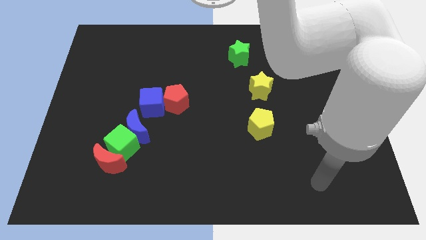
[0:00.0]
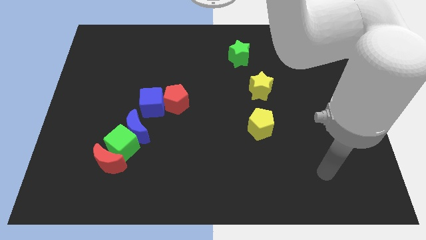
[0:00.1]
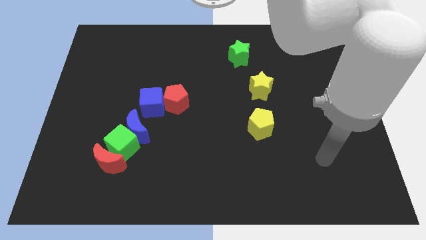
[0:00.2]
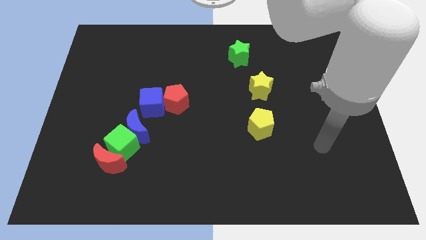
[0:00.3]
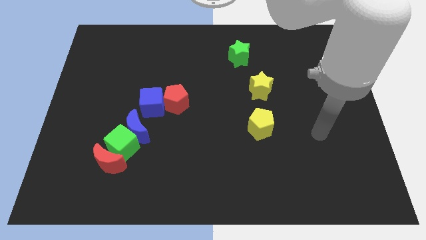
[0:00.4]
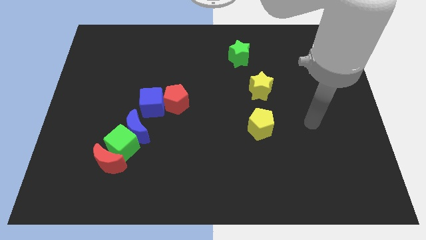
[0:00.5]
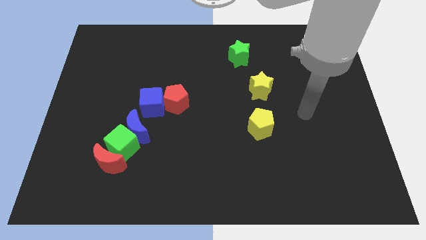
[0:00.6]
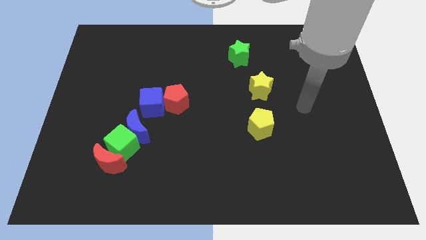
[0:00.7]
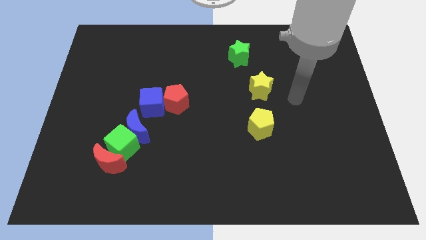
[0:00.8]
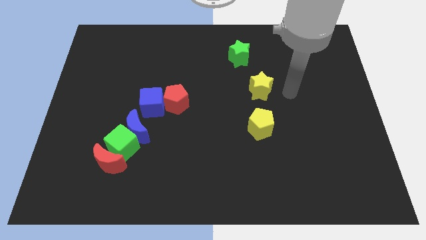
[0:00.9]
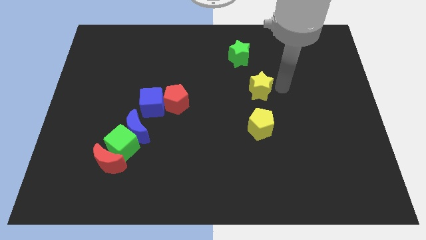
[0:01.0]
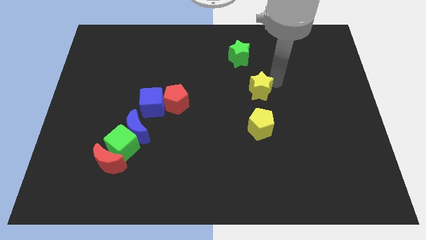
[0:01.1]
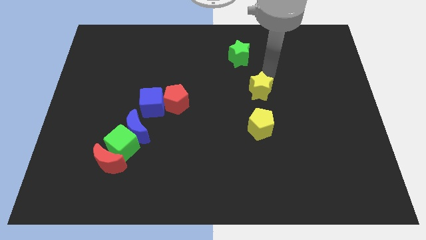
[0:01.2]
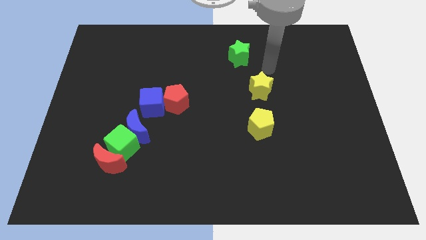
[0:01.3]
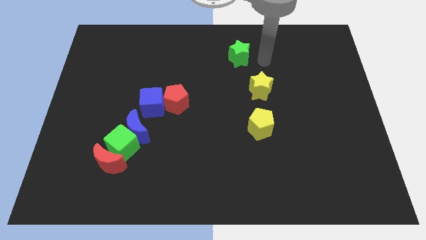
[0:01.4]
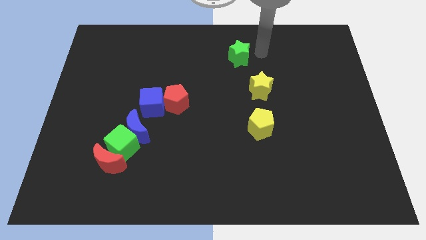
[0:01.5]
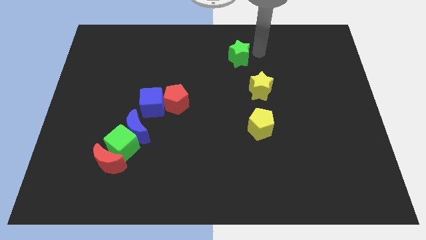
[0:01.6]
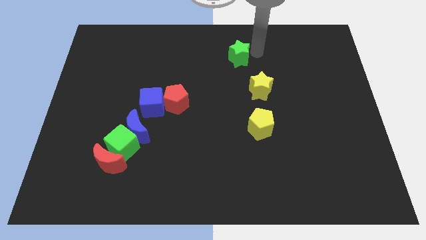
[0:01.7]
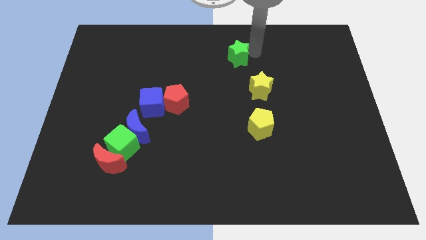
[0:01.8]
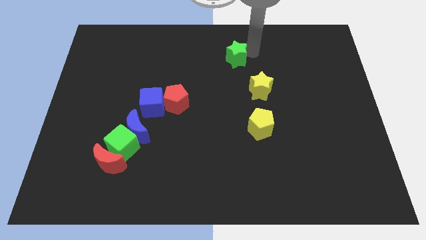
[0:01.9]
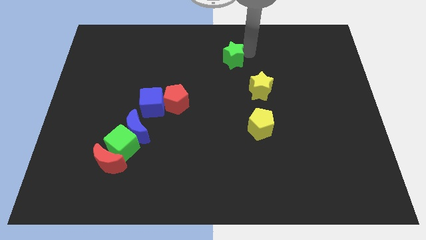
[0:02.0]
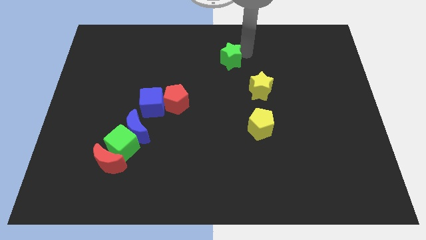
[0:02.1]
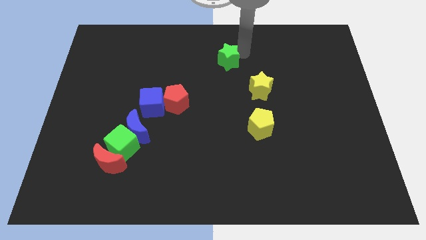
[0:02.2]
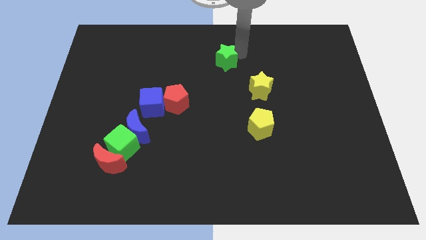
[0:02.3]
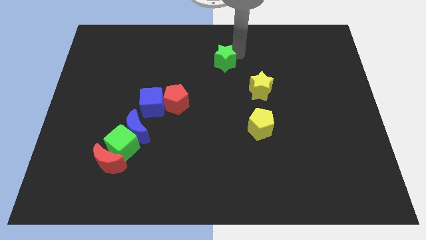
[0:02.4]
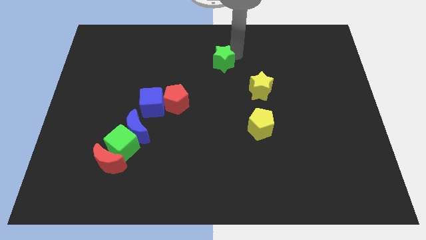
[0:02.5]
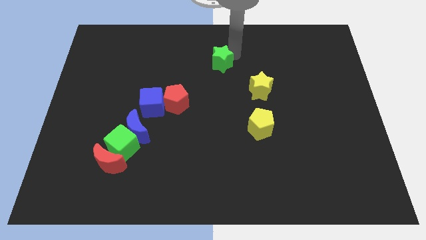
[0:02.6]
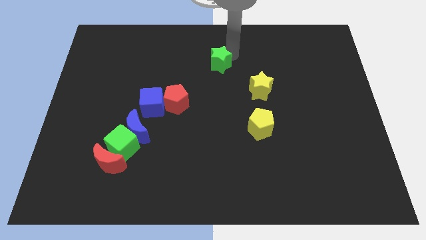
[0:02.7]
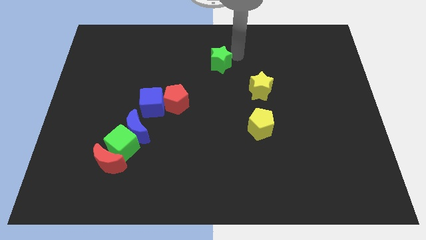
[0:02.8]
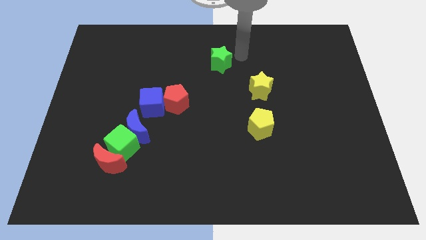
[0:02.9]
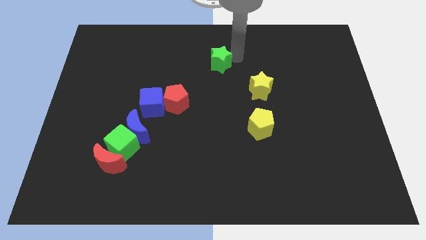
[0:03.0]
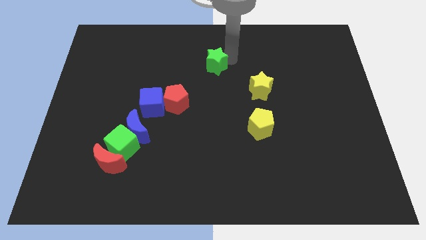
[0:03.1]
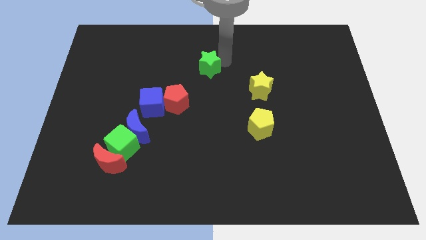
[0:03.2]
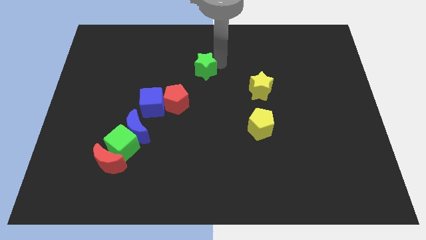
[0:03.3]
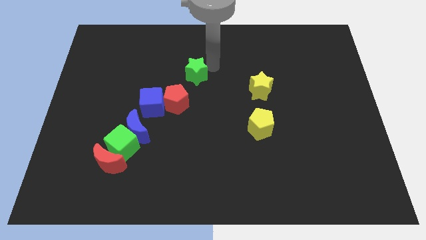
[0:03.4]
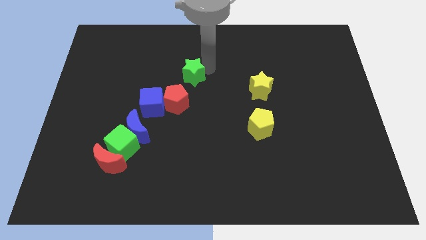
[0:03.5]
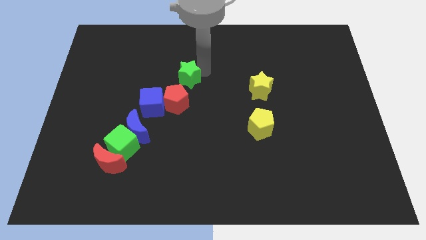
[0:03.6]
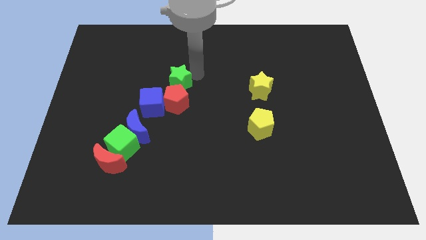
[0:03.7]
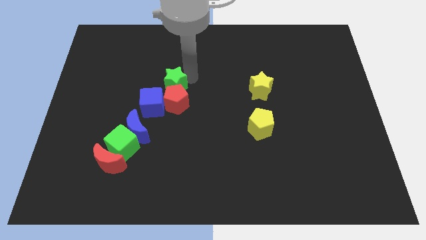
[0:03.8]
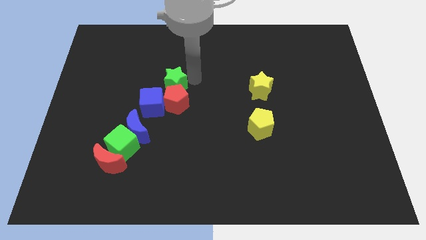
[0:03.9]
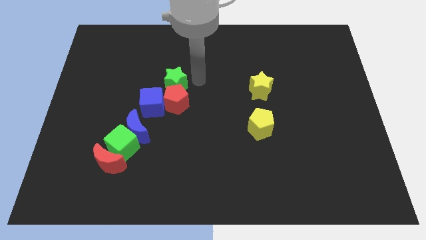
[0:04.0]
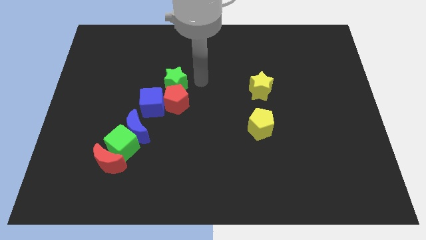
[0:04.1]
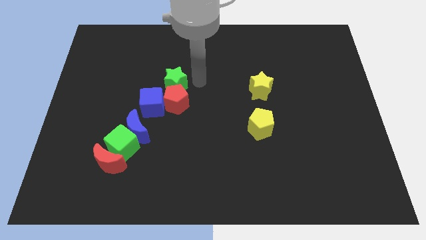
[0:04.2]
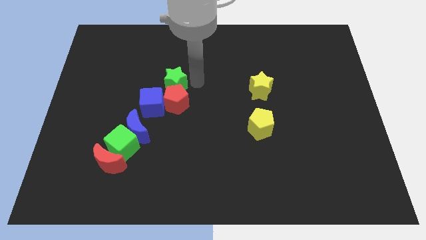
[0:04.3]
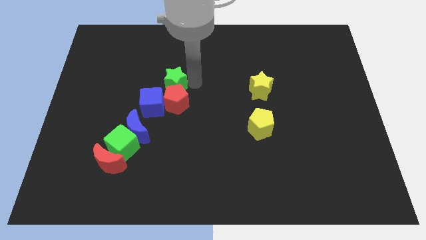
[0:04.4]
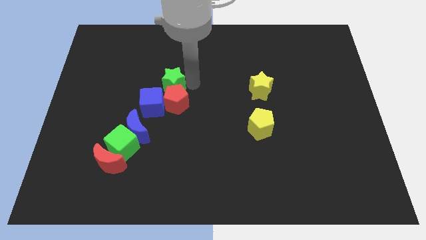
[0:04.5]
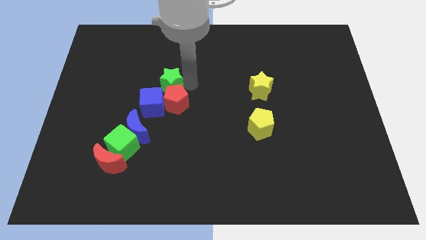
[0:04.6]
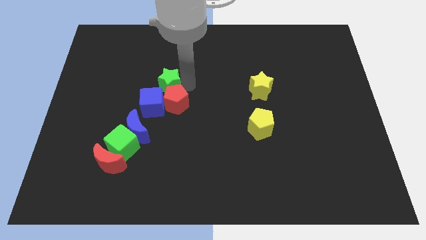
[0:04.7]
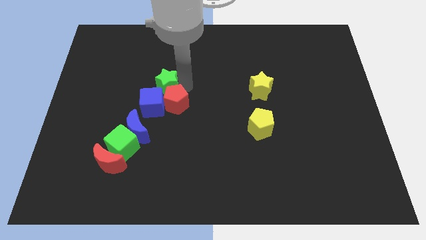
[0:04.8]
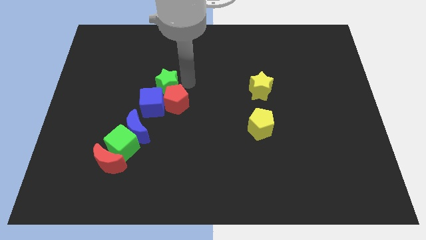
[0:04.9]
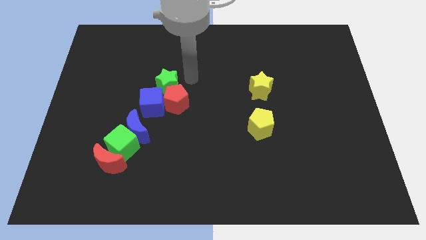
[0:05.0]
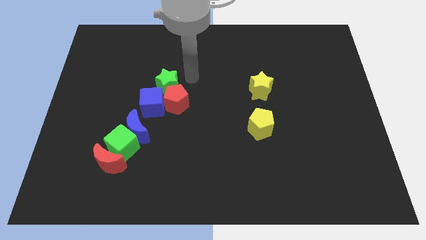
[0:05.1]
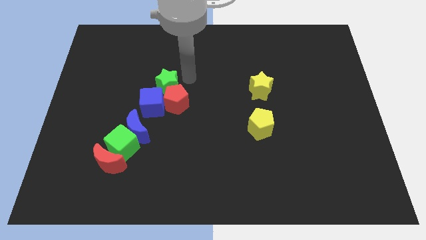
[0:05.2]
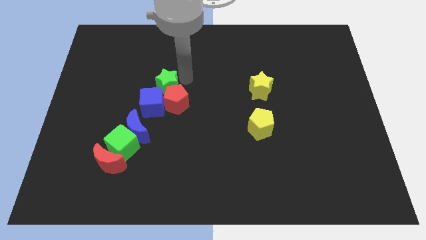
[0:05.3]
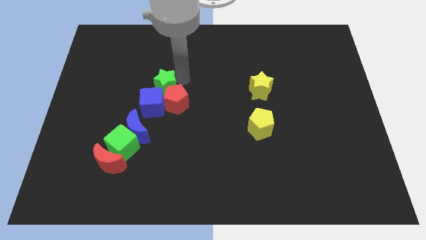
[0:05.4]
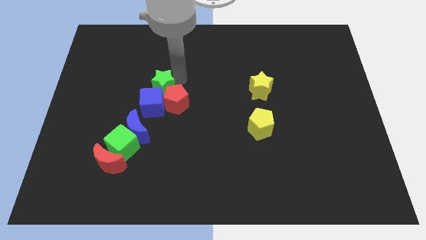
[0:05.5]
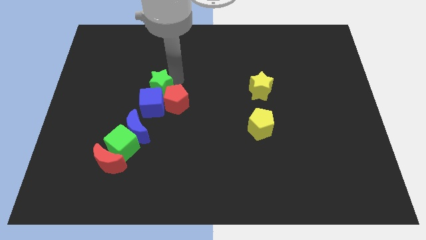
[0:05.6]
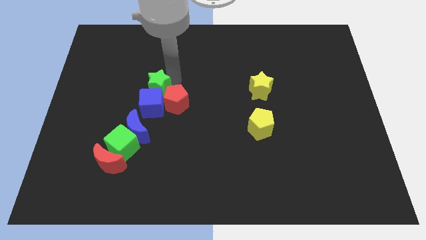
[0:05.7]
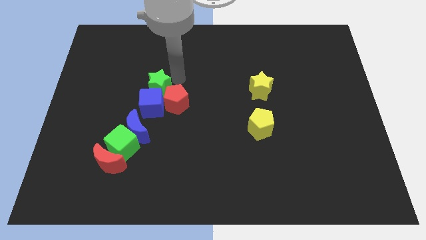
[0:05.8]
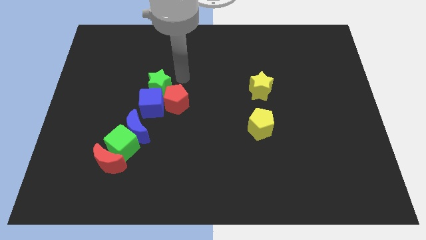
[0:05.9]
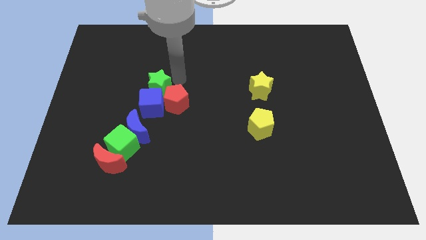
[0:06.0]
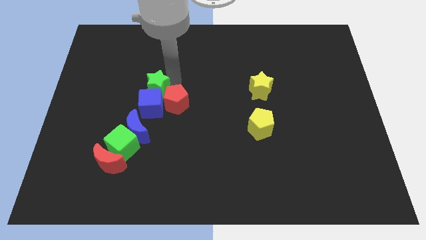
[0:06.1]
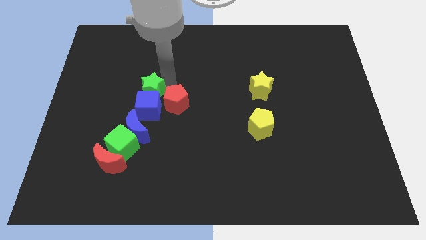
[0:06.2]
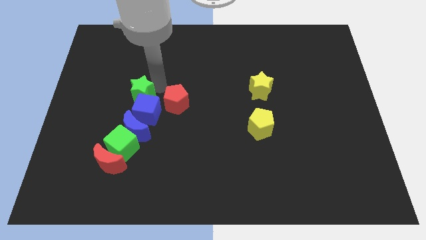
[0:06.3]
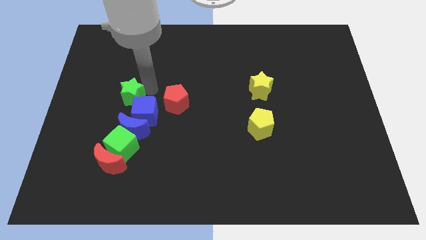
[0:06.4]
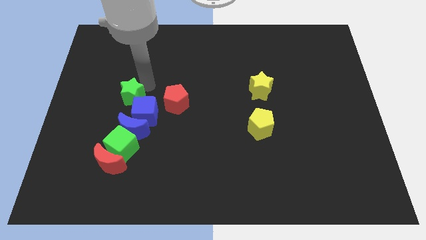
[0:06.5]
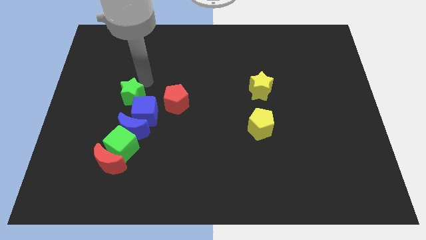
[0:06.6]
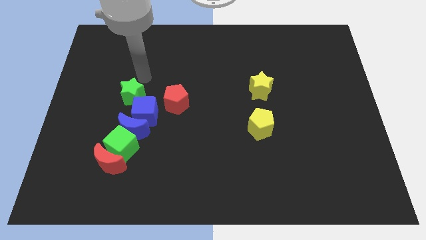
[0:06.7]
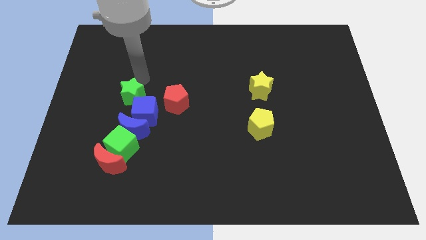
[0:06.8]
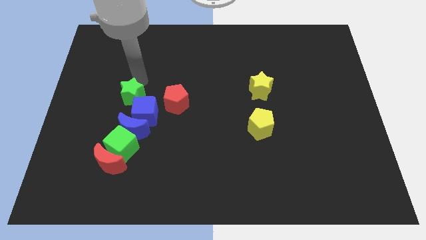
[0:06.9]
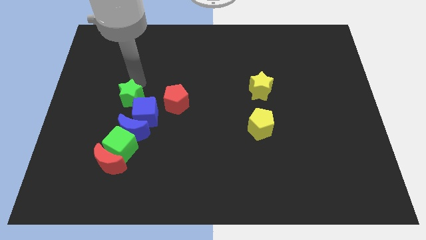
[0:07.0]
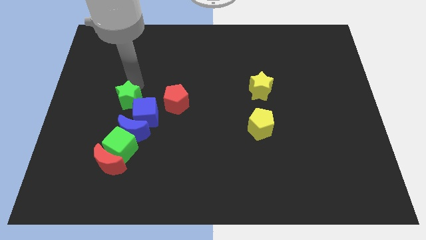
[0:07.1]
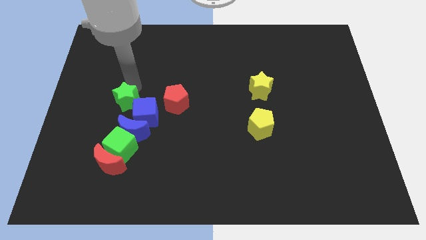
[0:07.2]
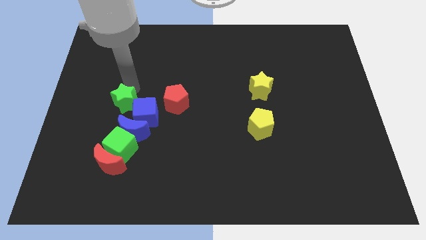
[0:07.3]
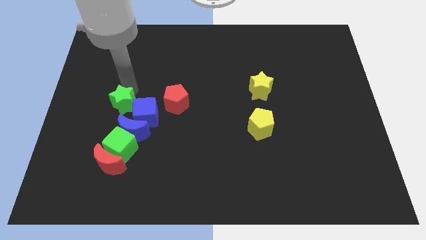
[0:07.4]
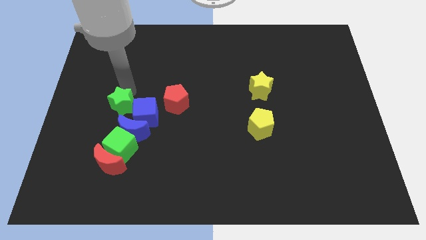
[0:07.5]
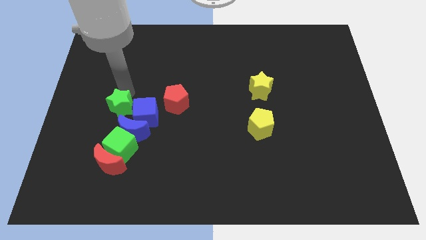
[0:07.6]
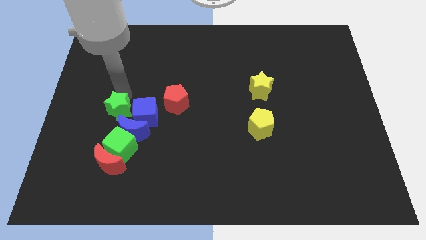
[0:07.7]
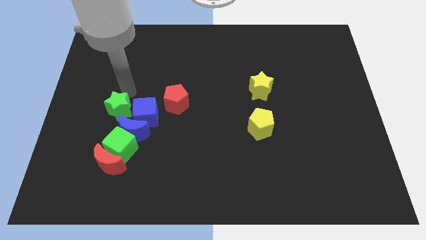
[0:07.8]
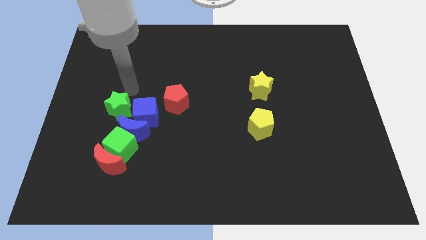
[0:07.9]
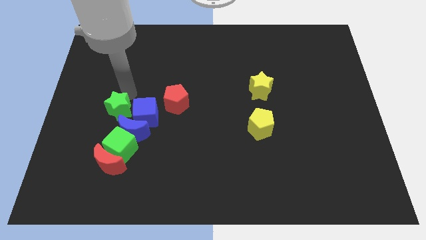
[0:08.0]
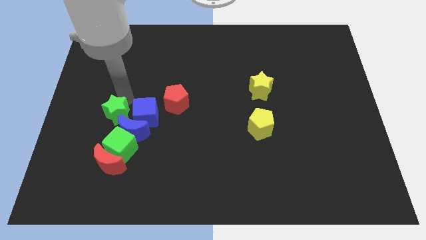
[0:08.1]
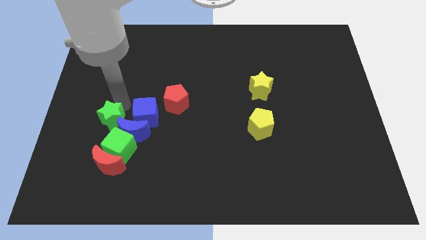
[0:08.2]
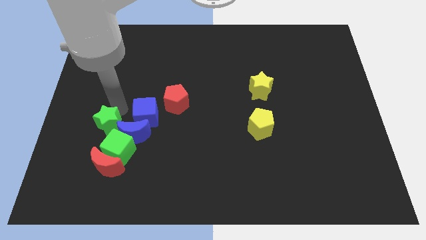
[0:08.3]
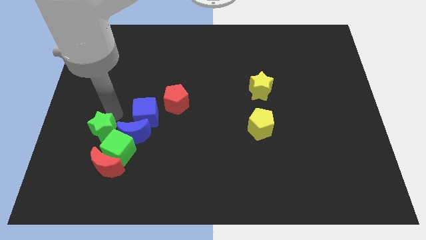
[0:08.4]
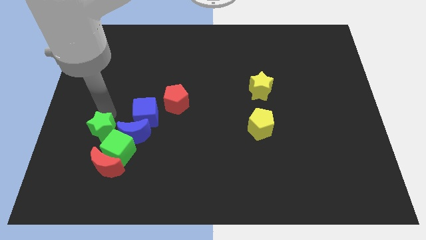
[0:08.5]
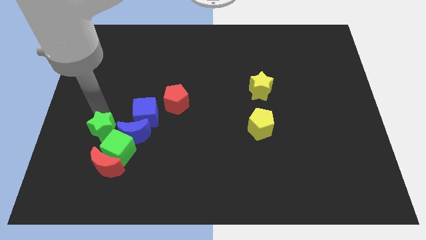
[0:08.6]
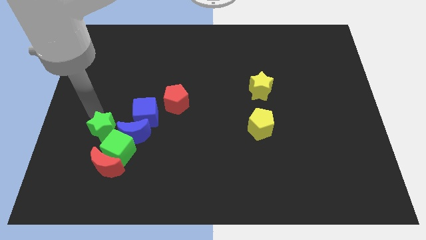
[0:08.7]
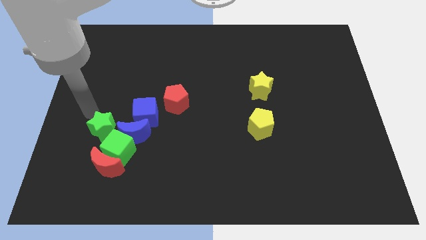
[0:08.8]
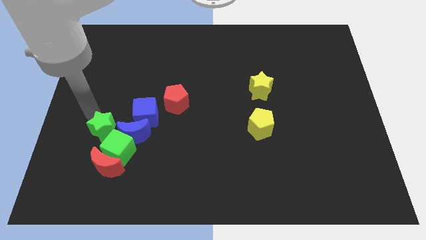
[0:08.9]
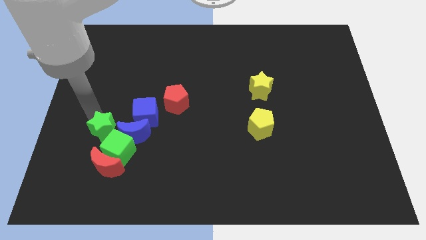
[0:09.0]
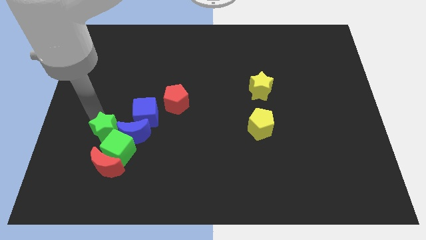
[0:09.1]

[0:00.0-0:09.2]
put the green star close to the green cube
